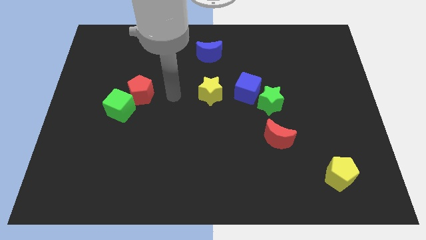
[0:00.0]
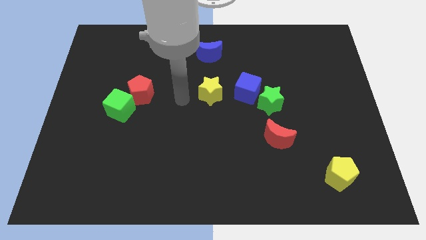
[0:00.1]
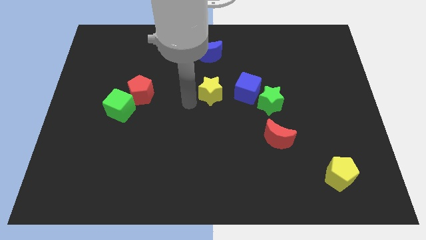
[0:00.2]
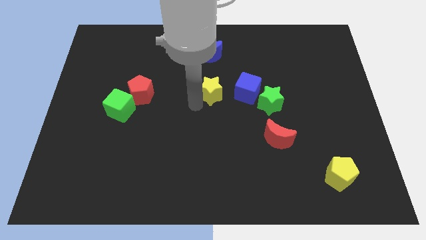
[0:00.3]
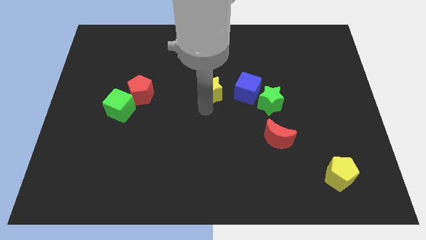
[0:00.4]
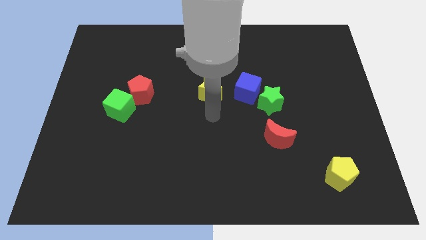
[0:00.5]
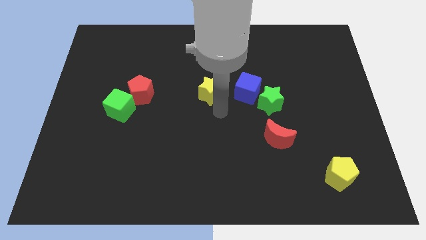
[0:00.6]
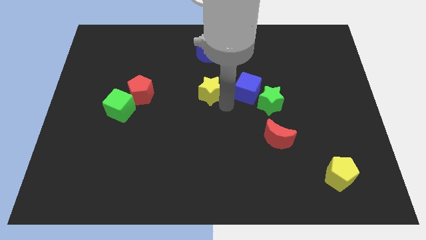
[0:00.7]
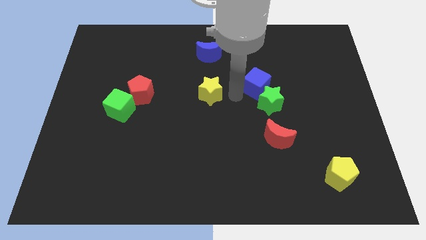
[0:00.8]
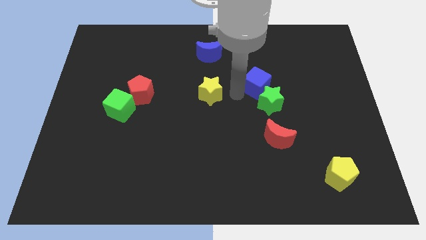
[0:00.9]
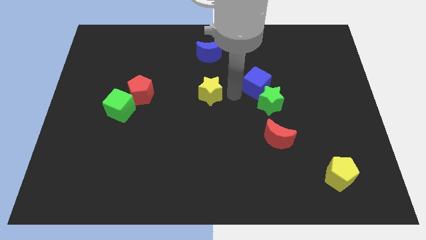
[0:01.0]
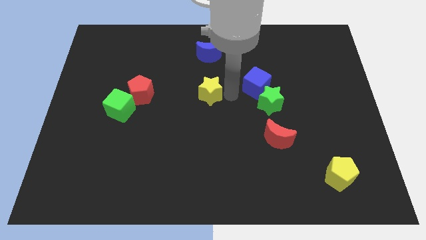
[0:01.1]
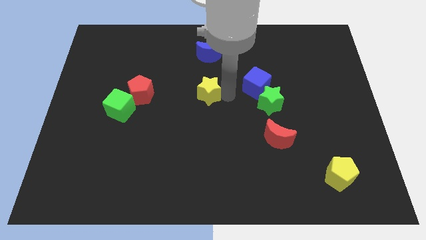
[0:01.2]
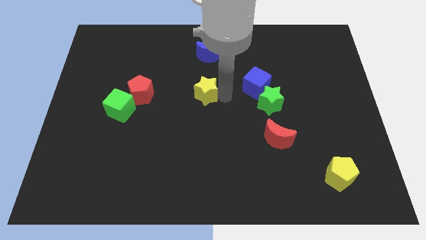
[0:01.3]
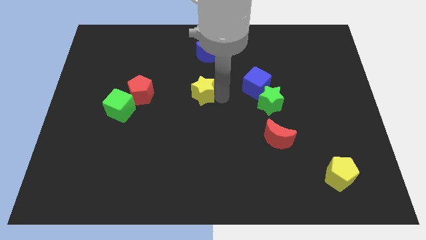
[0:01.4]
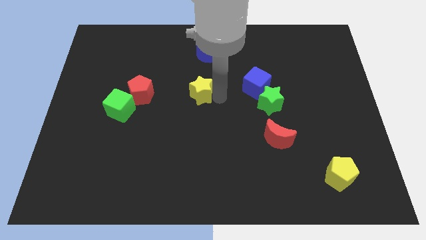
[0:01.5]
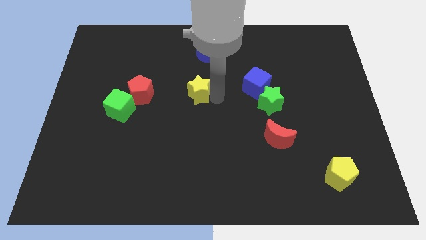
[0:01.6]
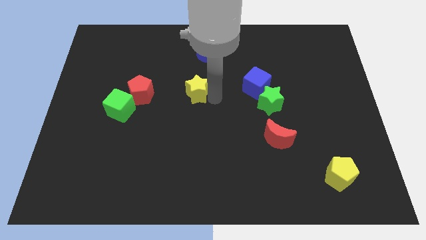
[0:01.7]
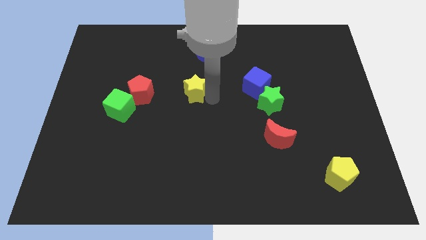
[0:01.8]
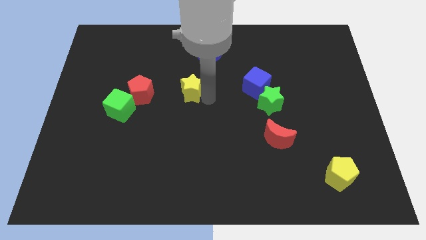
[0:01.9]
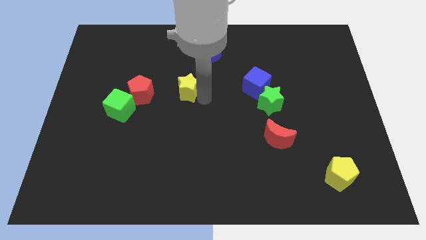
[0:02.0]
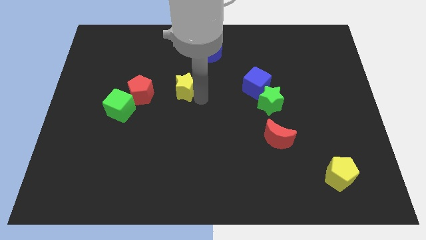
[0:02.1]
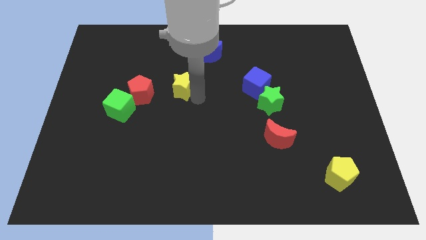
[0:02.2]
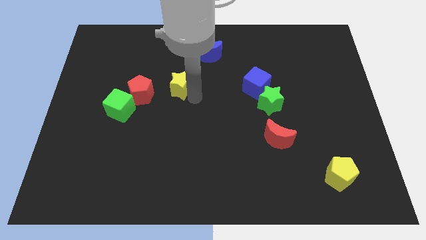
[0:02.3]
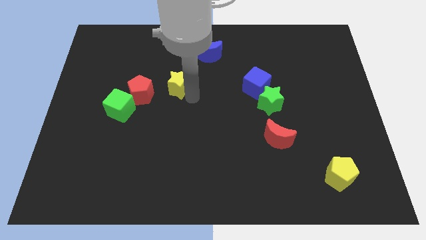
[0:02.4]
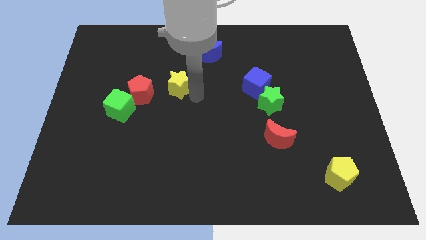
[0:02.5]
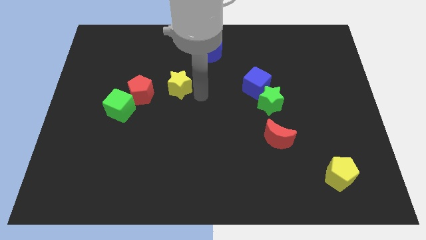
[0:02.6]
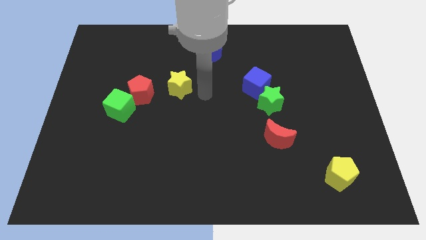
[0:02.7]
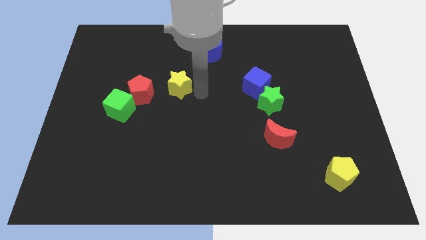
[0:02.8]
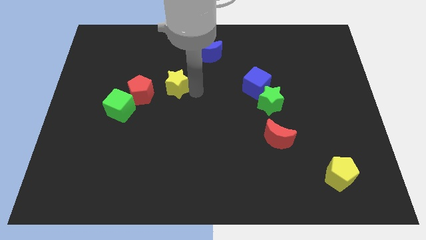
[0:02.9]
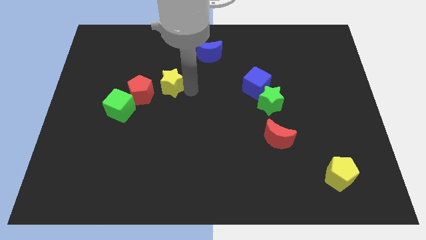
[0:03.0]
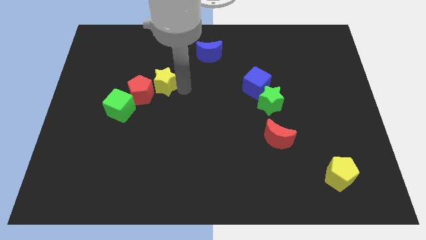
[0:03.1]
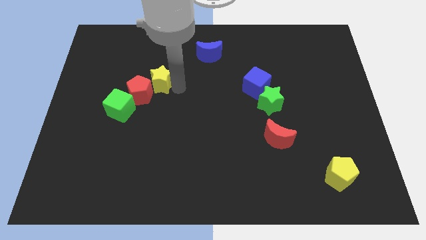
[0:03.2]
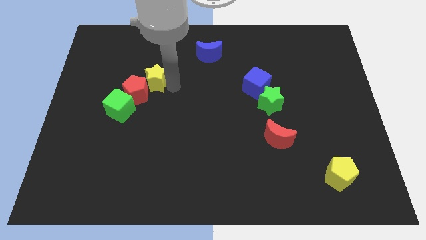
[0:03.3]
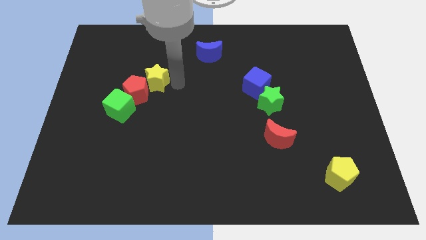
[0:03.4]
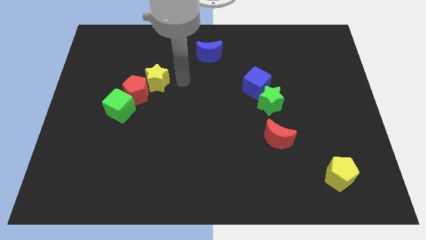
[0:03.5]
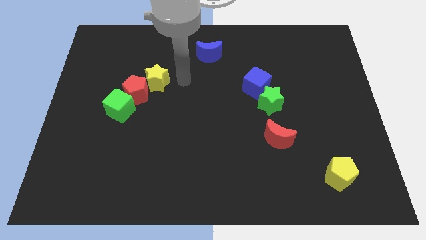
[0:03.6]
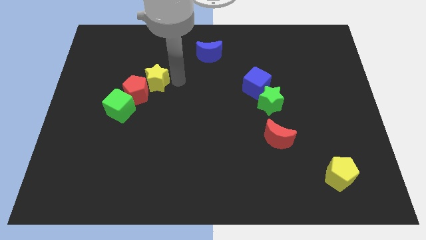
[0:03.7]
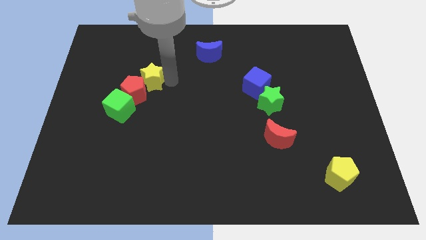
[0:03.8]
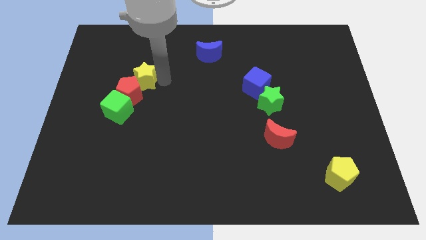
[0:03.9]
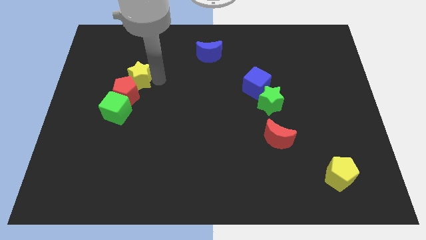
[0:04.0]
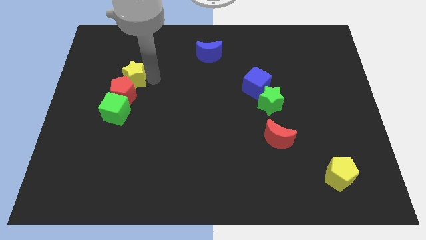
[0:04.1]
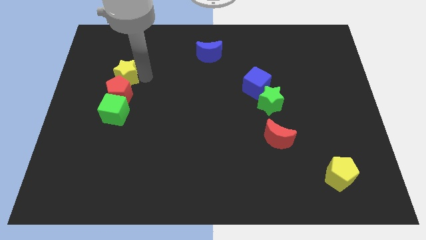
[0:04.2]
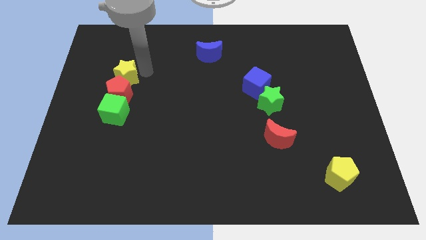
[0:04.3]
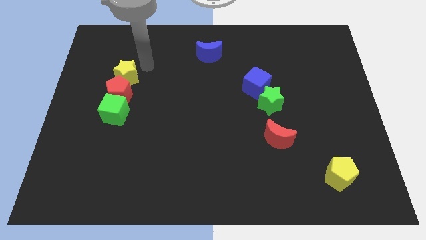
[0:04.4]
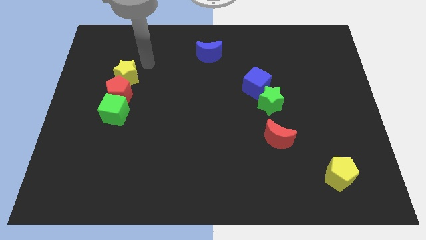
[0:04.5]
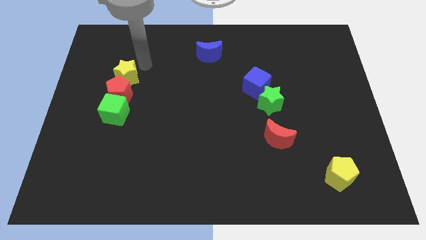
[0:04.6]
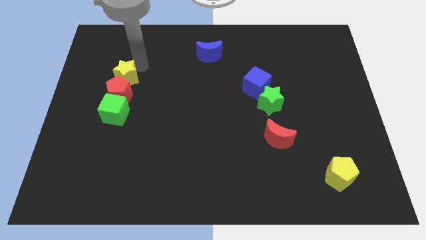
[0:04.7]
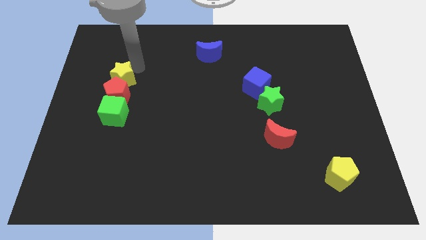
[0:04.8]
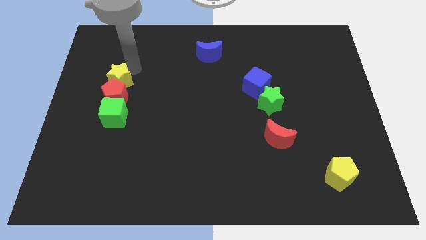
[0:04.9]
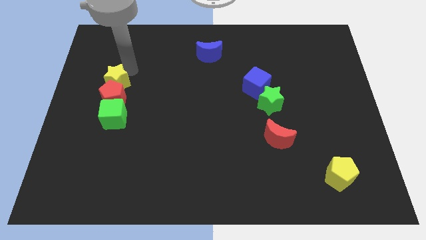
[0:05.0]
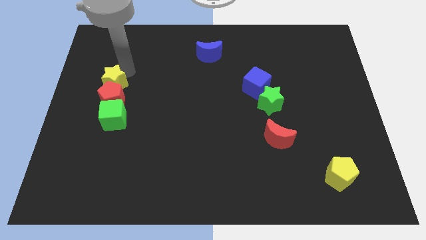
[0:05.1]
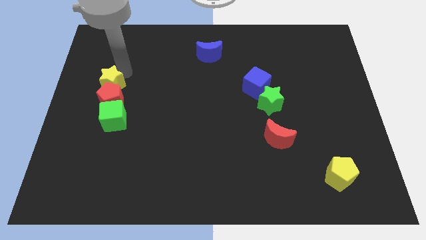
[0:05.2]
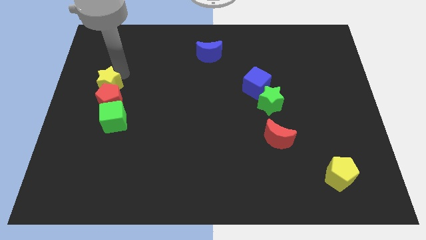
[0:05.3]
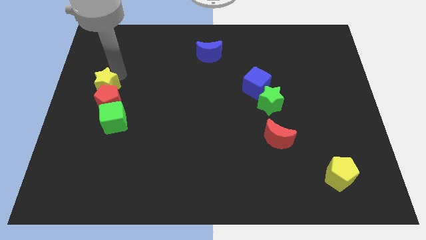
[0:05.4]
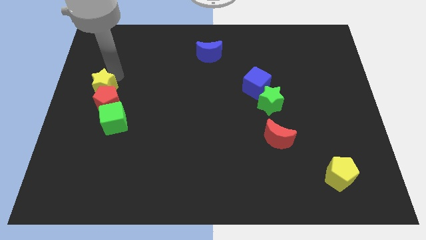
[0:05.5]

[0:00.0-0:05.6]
move the yellow star to the top left of the green cube

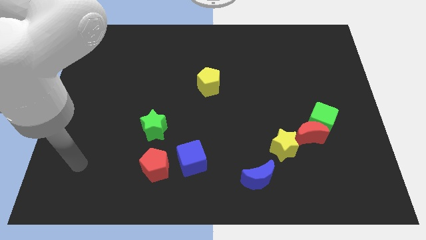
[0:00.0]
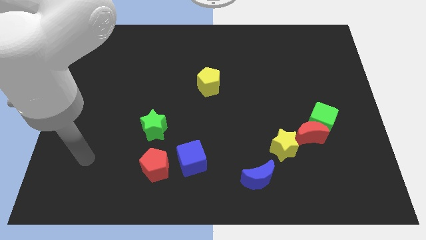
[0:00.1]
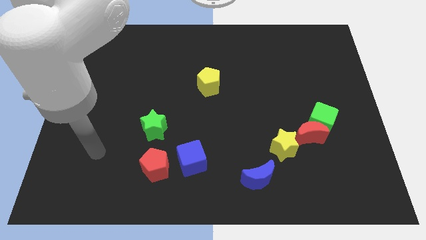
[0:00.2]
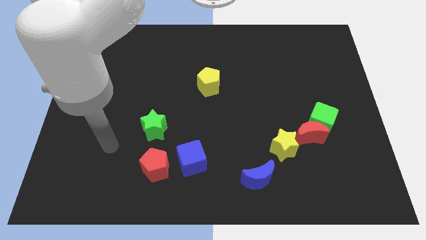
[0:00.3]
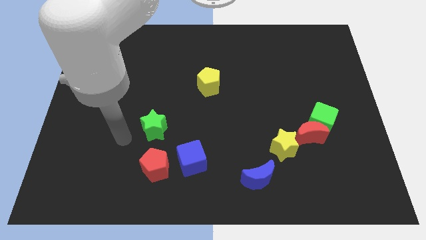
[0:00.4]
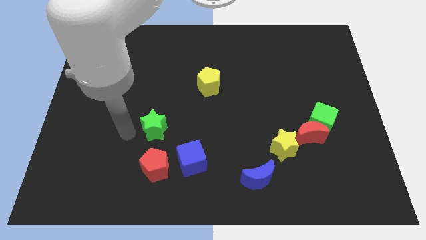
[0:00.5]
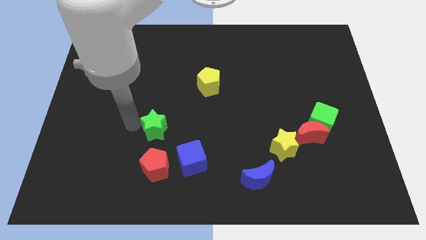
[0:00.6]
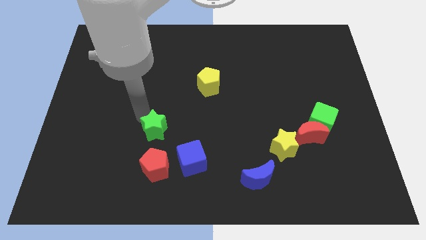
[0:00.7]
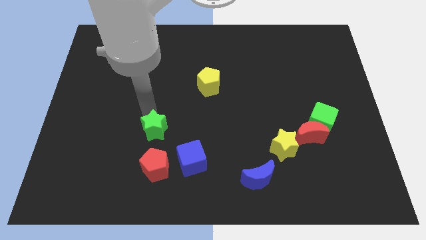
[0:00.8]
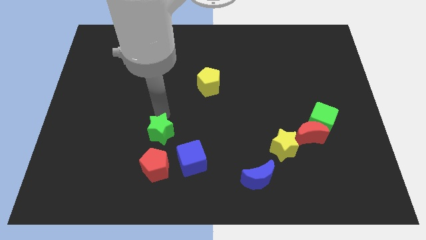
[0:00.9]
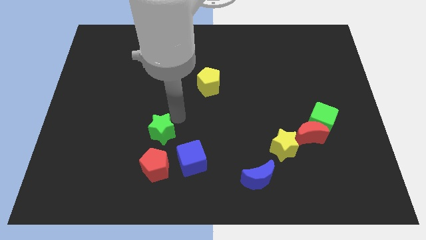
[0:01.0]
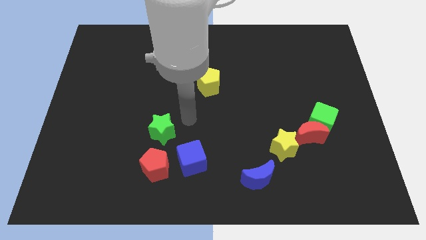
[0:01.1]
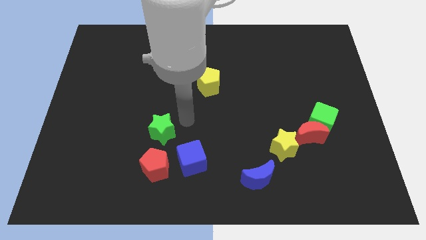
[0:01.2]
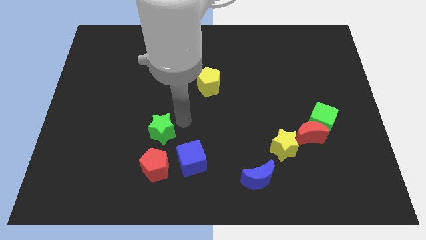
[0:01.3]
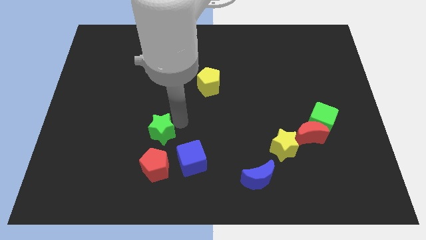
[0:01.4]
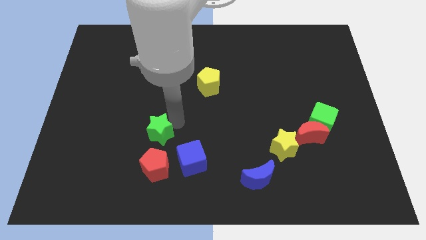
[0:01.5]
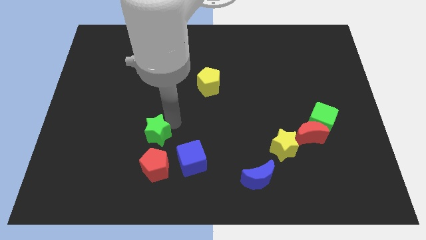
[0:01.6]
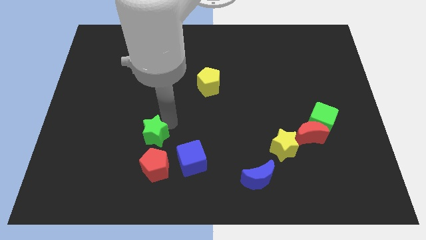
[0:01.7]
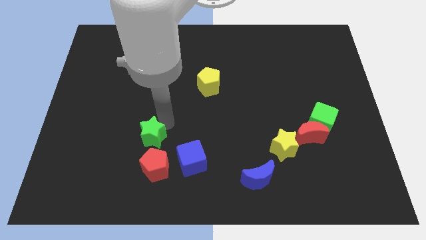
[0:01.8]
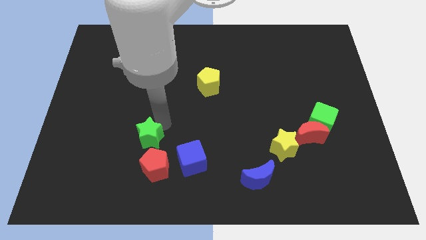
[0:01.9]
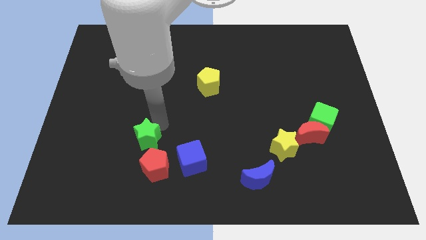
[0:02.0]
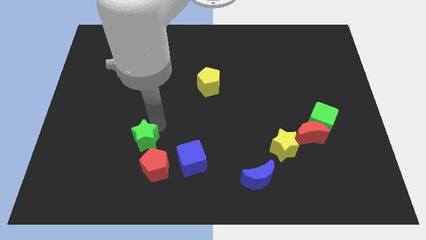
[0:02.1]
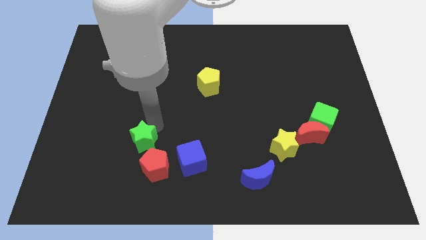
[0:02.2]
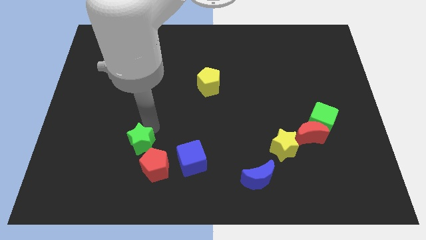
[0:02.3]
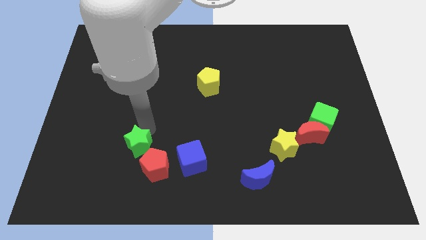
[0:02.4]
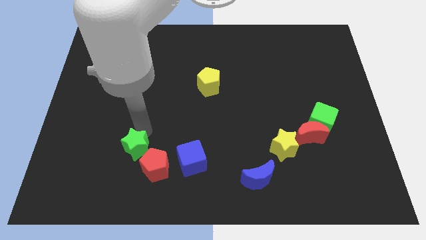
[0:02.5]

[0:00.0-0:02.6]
put the green star to the left of the red pentagon
